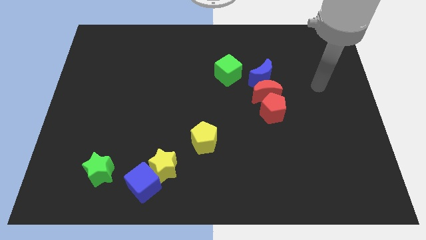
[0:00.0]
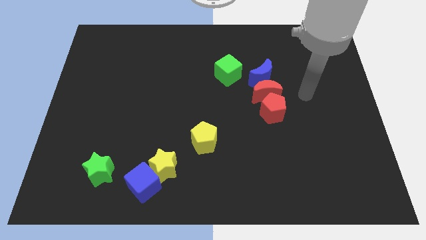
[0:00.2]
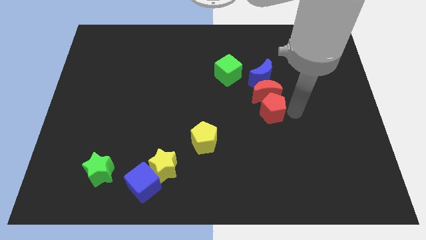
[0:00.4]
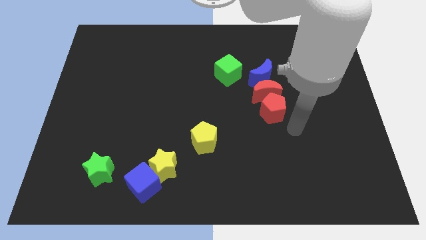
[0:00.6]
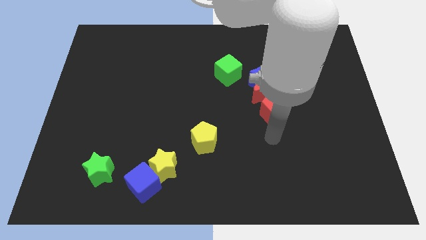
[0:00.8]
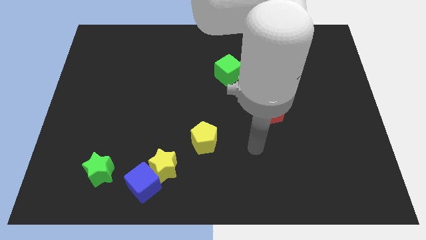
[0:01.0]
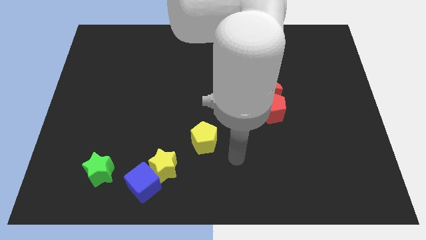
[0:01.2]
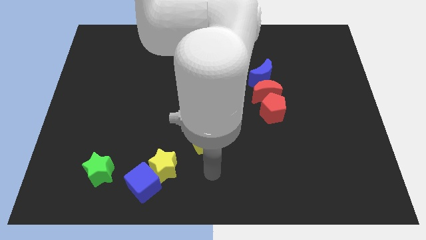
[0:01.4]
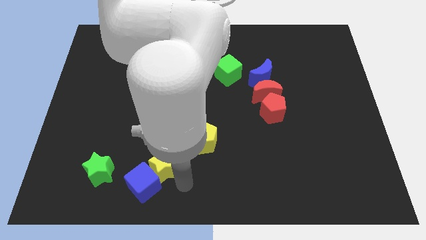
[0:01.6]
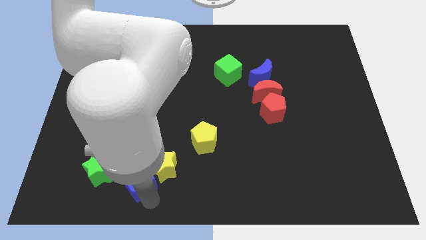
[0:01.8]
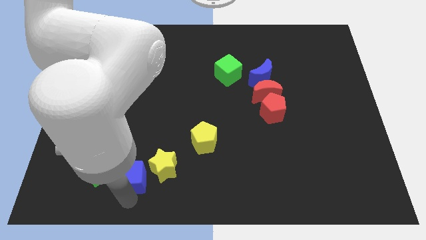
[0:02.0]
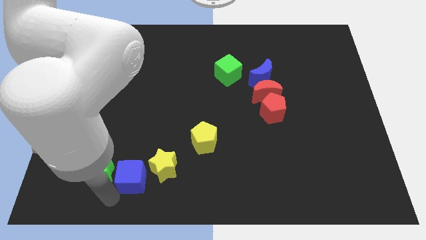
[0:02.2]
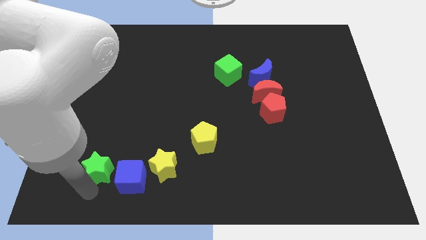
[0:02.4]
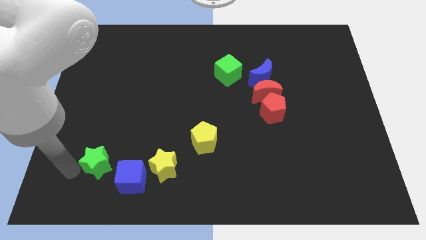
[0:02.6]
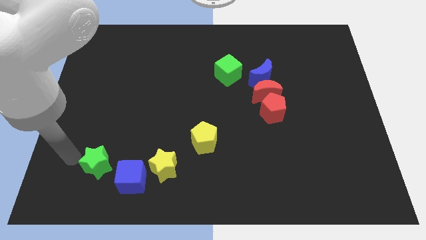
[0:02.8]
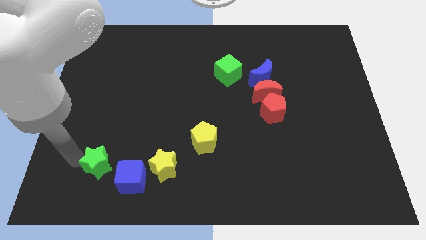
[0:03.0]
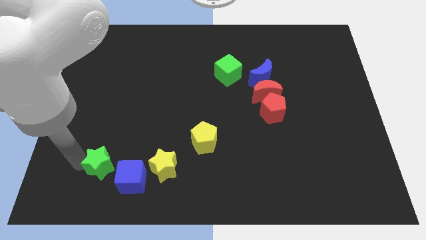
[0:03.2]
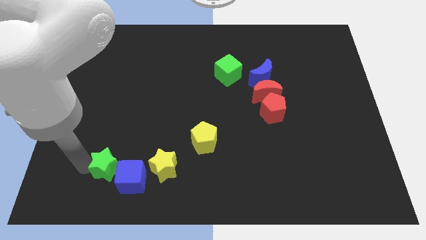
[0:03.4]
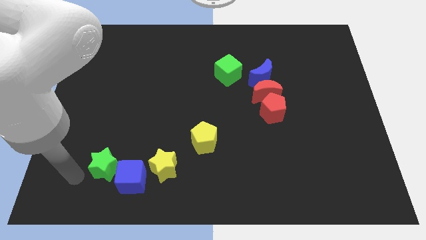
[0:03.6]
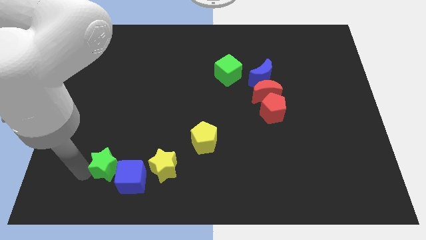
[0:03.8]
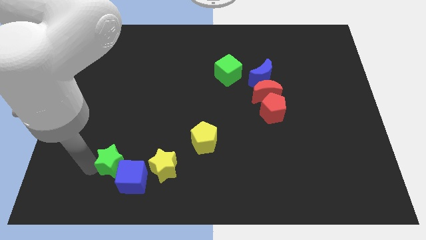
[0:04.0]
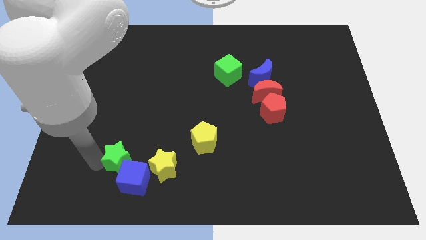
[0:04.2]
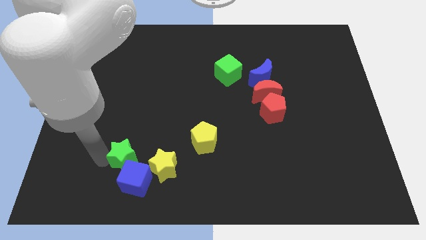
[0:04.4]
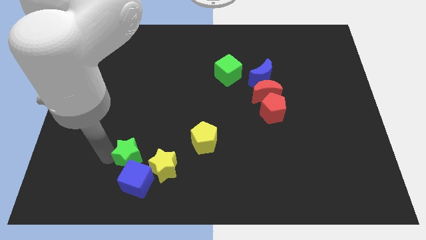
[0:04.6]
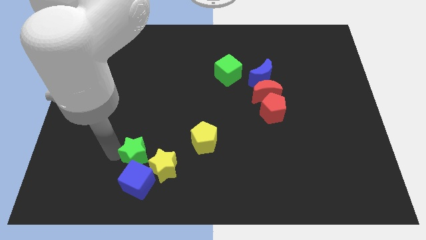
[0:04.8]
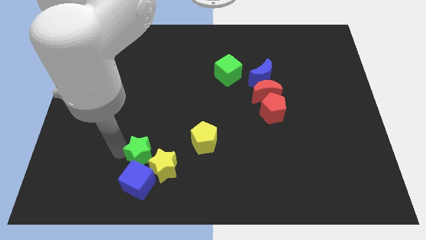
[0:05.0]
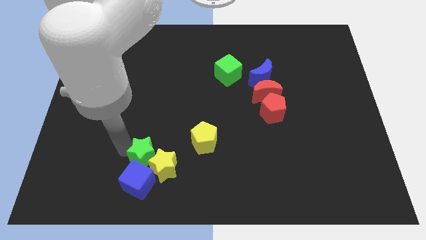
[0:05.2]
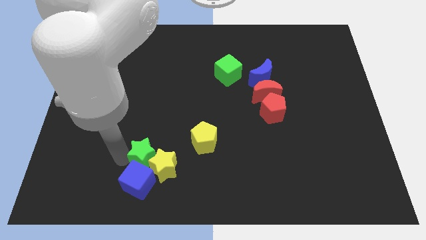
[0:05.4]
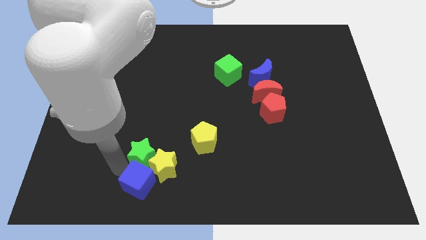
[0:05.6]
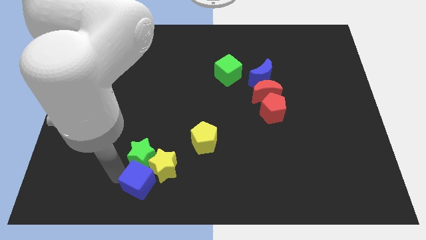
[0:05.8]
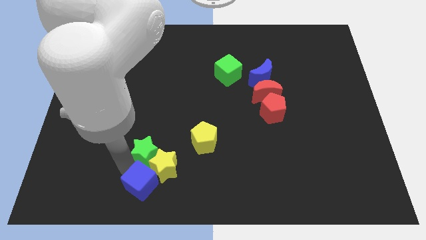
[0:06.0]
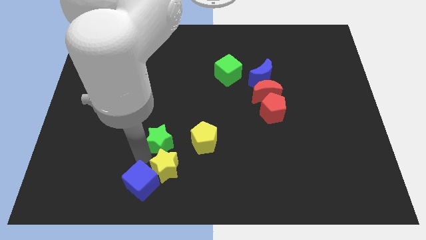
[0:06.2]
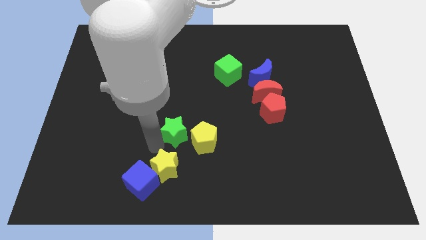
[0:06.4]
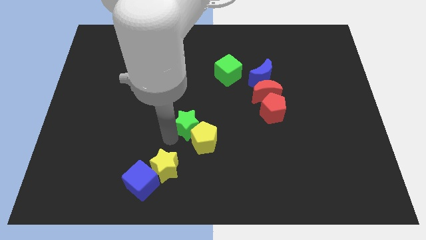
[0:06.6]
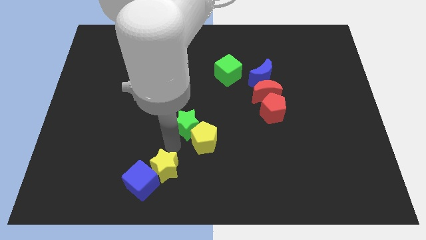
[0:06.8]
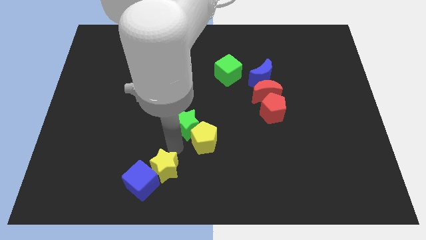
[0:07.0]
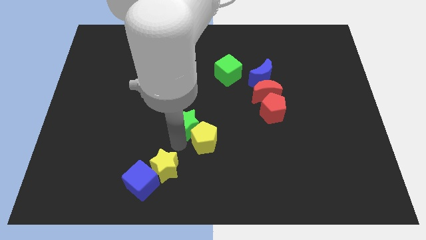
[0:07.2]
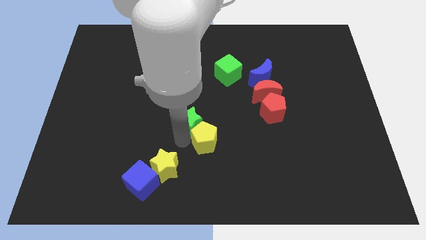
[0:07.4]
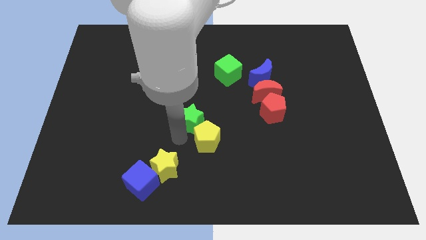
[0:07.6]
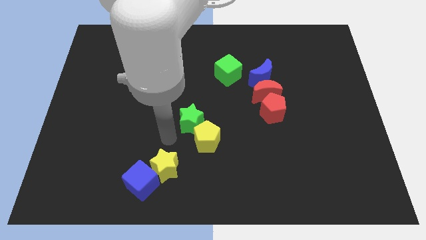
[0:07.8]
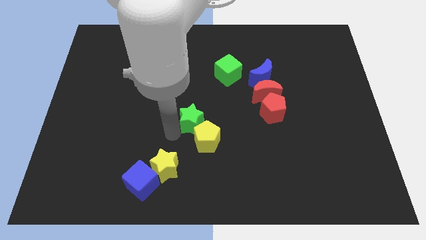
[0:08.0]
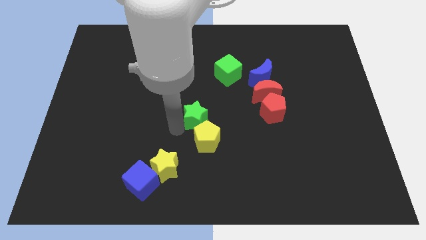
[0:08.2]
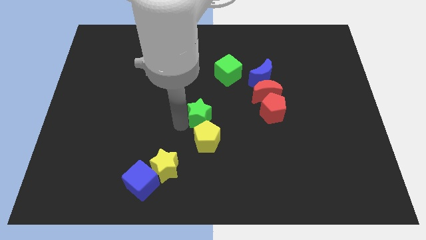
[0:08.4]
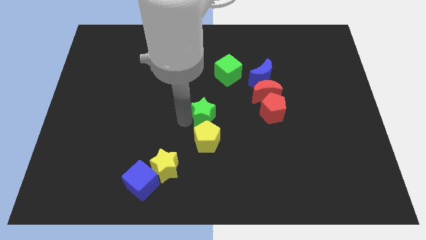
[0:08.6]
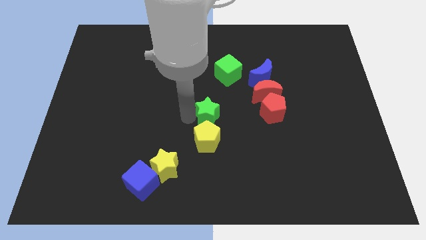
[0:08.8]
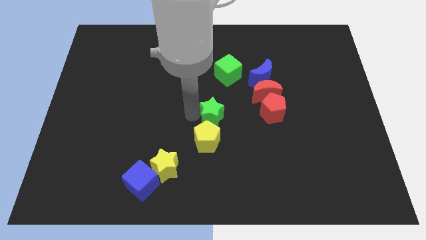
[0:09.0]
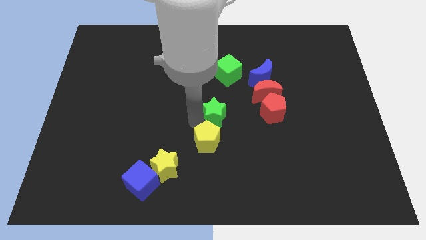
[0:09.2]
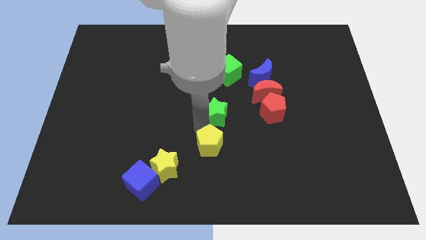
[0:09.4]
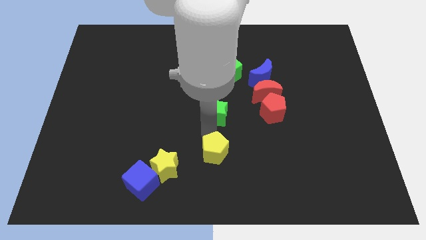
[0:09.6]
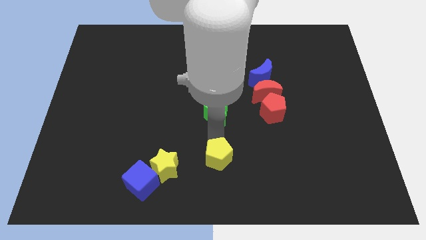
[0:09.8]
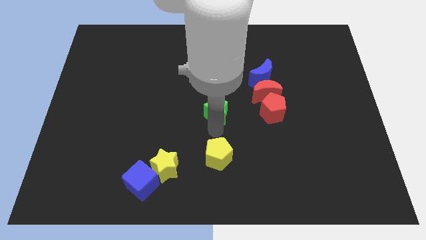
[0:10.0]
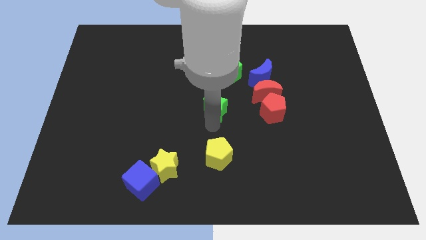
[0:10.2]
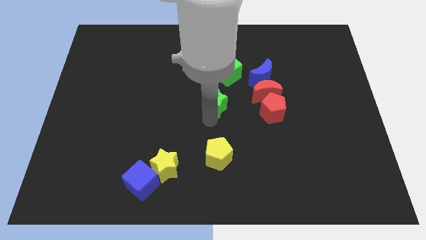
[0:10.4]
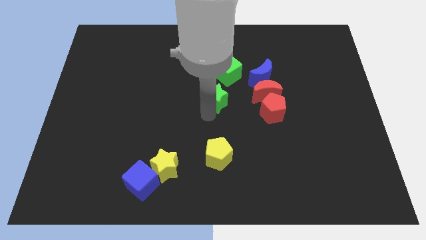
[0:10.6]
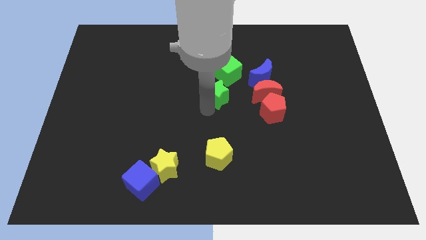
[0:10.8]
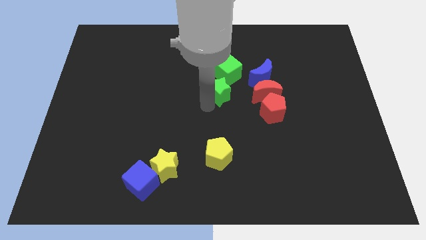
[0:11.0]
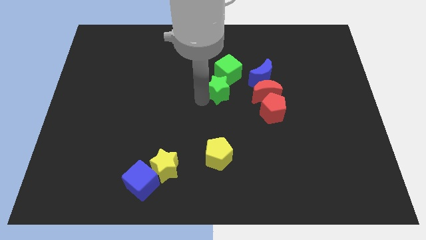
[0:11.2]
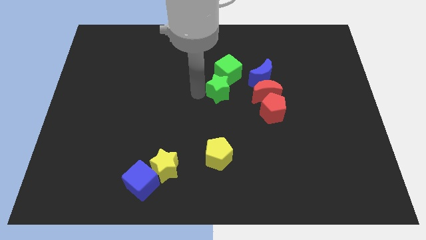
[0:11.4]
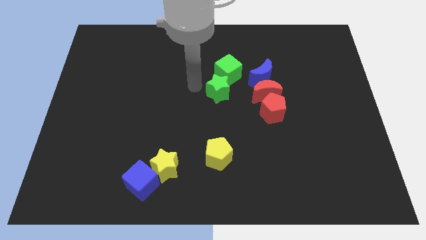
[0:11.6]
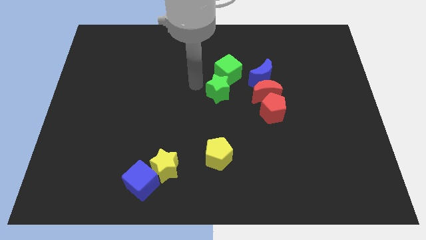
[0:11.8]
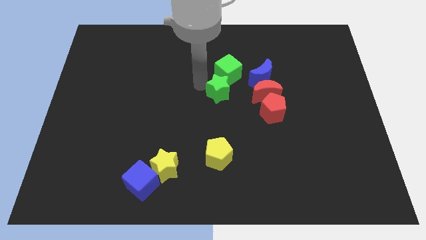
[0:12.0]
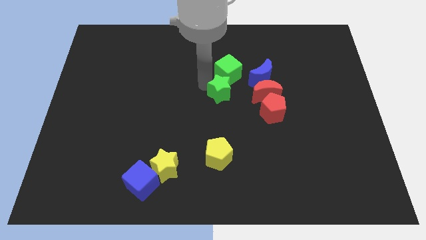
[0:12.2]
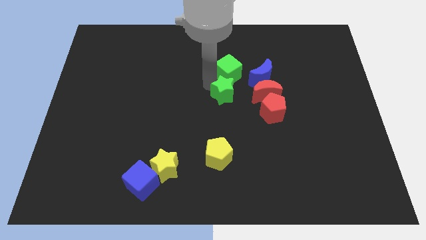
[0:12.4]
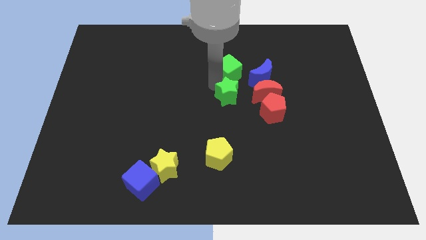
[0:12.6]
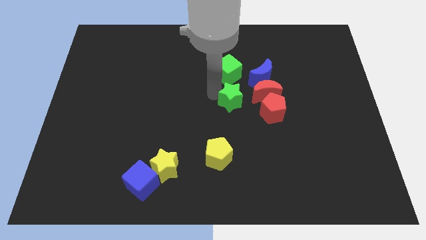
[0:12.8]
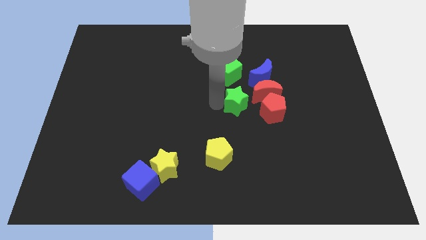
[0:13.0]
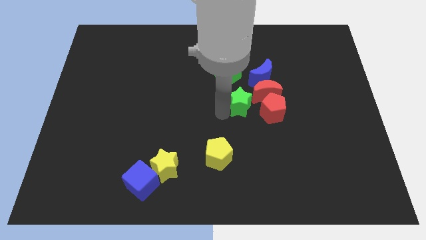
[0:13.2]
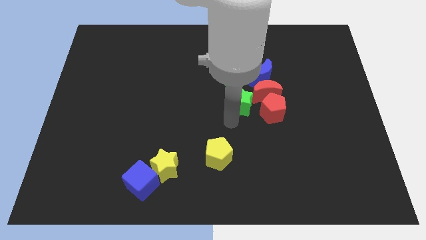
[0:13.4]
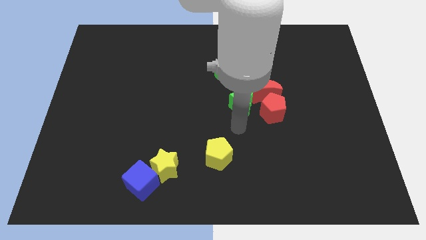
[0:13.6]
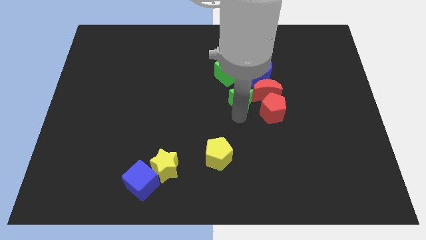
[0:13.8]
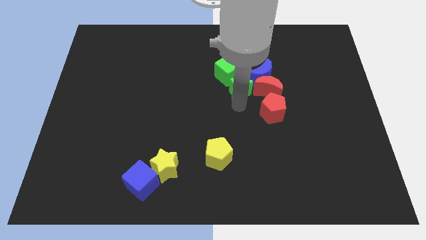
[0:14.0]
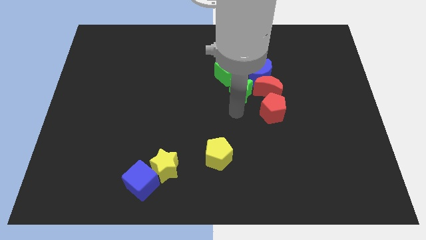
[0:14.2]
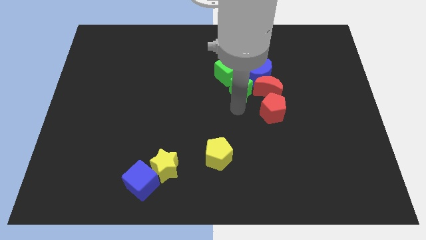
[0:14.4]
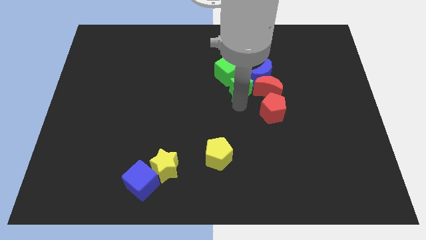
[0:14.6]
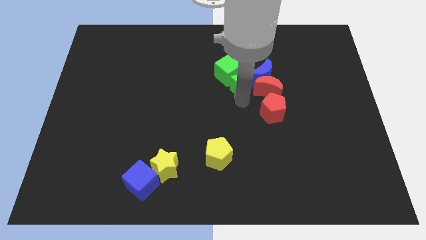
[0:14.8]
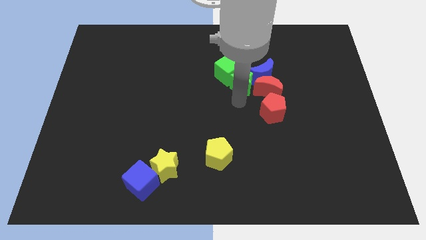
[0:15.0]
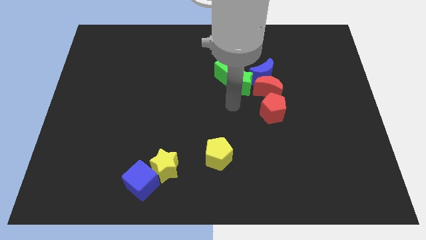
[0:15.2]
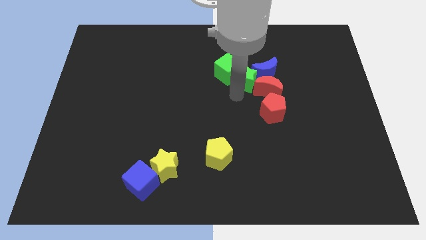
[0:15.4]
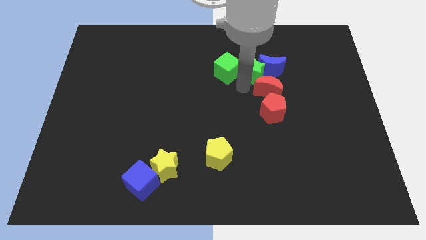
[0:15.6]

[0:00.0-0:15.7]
push the green star to the top right side of the green cube
